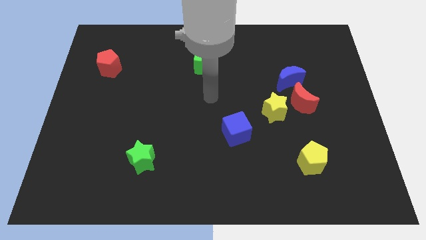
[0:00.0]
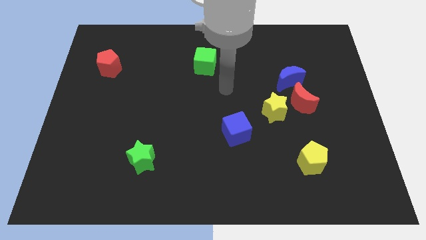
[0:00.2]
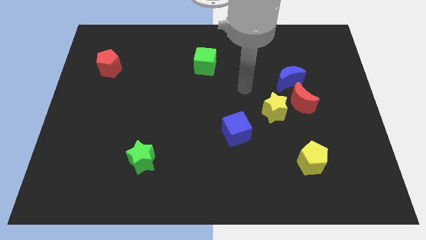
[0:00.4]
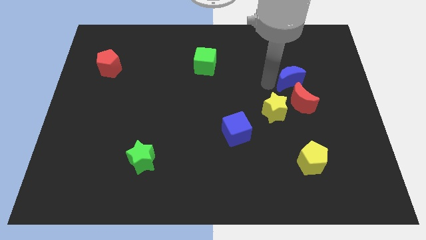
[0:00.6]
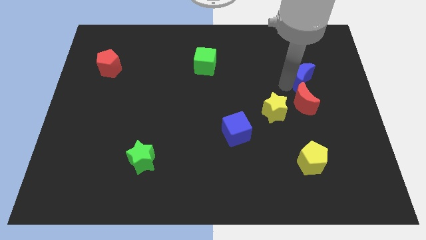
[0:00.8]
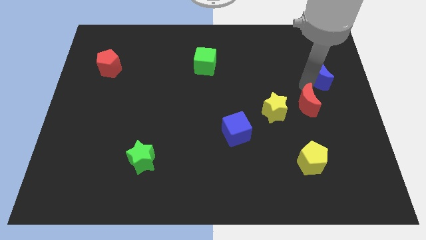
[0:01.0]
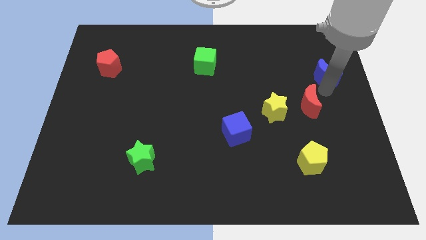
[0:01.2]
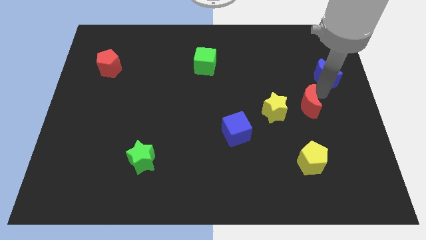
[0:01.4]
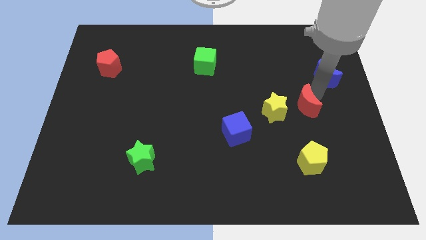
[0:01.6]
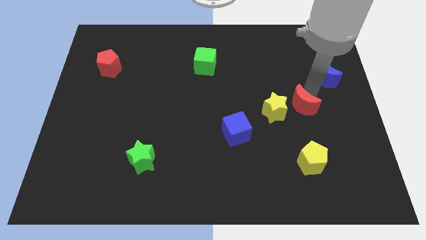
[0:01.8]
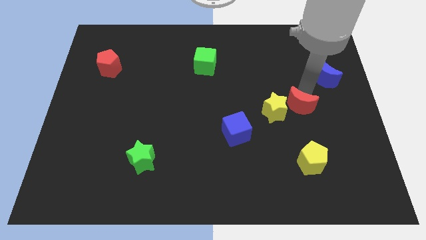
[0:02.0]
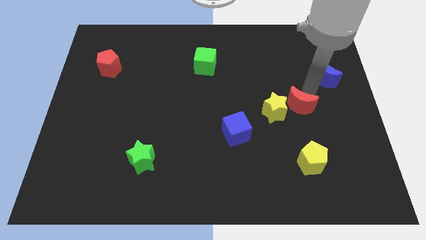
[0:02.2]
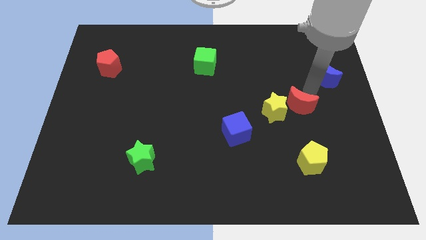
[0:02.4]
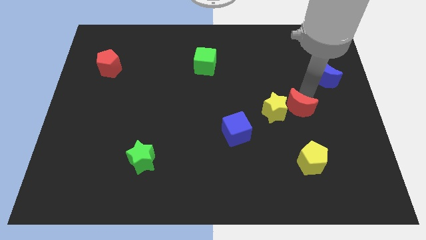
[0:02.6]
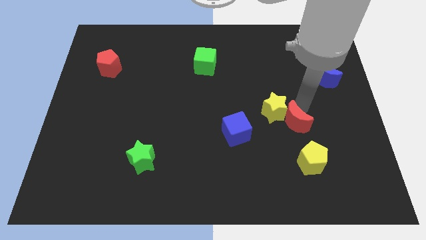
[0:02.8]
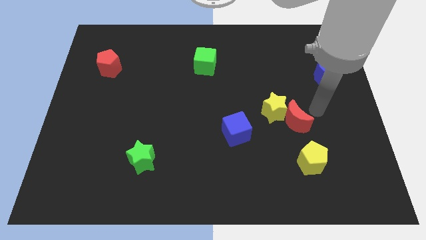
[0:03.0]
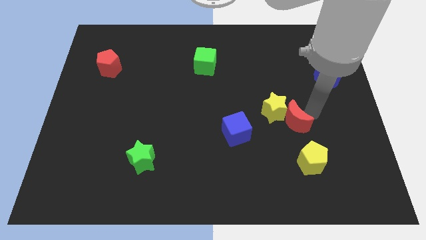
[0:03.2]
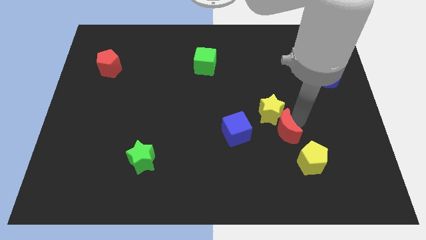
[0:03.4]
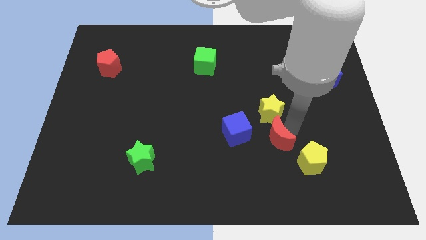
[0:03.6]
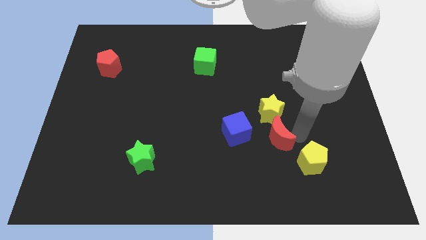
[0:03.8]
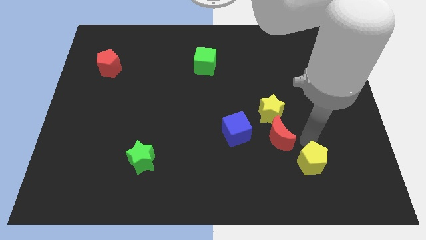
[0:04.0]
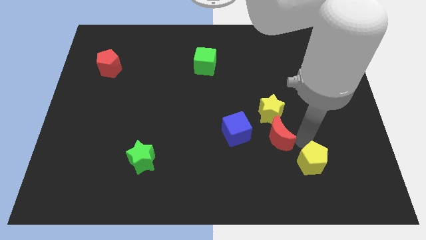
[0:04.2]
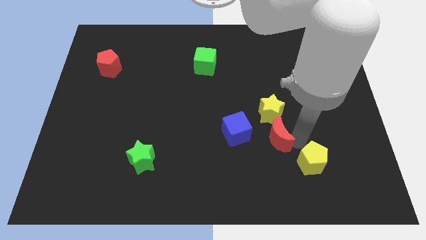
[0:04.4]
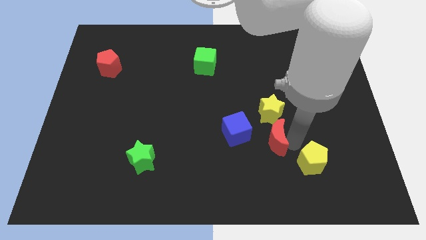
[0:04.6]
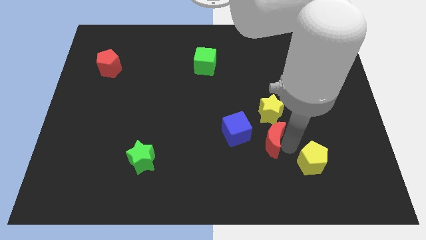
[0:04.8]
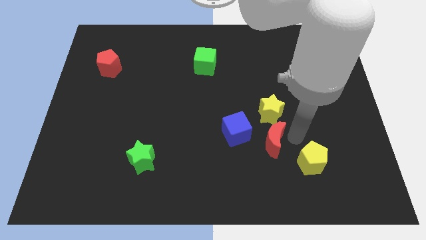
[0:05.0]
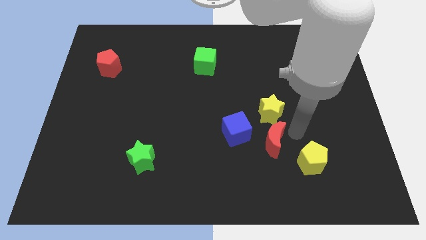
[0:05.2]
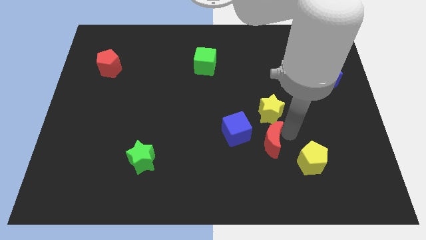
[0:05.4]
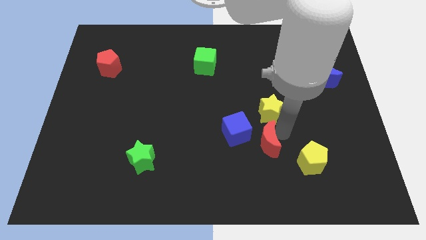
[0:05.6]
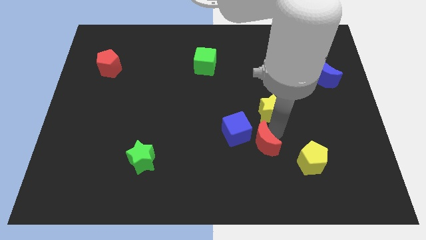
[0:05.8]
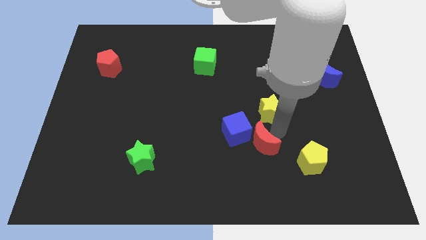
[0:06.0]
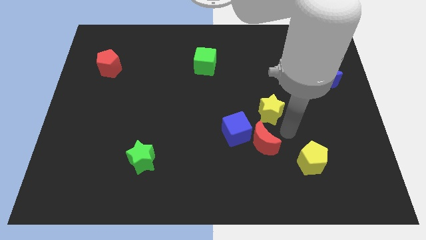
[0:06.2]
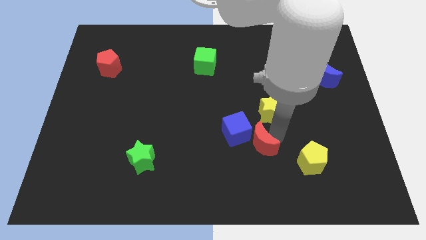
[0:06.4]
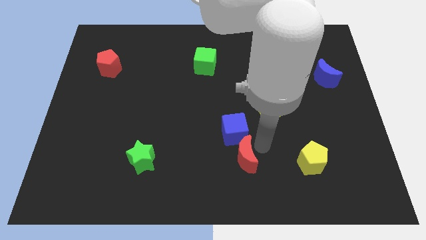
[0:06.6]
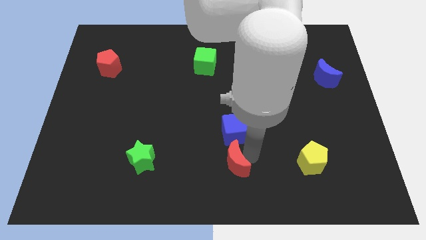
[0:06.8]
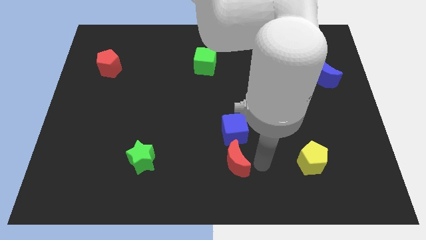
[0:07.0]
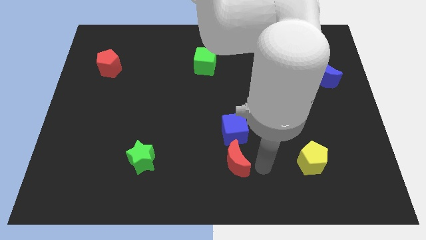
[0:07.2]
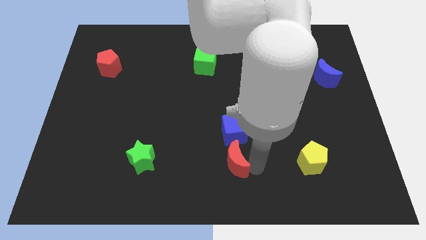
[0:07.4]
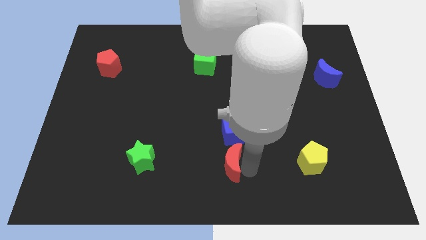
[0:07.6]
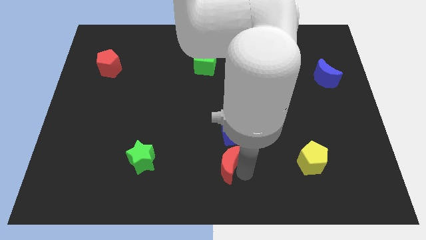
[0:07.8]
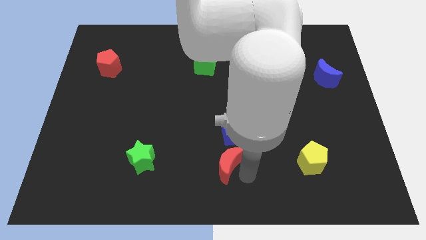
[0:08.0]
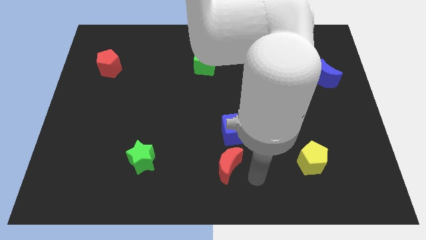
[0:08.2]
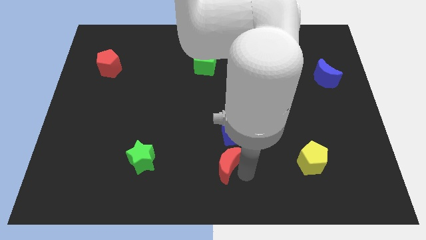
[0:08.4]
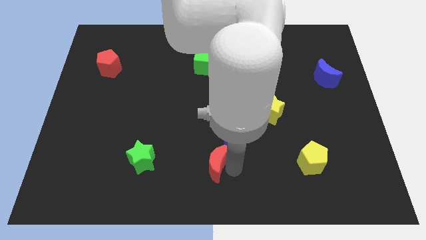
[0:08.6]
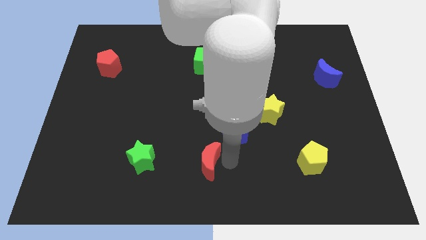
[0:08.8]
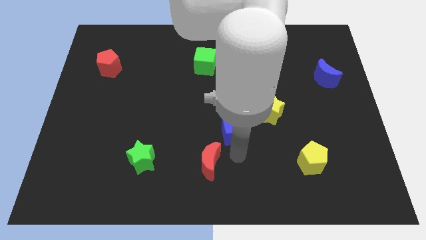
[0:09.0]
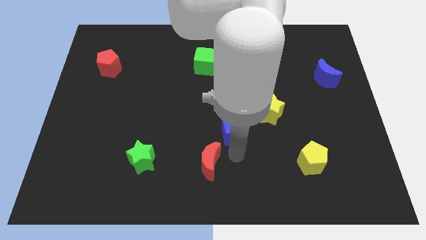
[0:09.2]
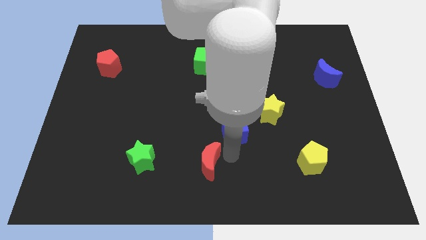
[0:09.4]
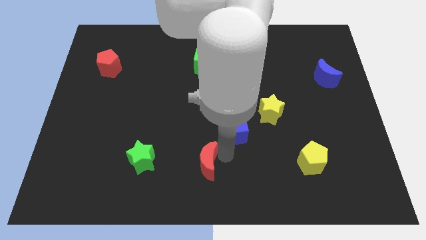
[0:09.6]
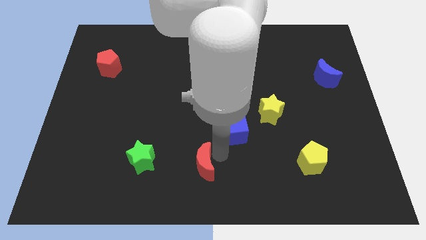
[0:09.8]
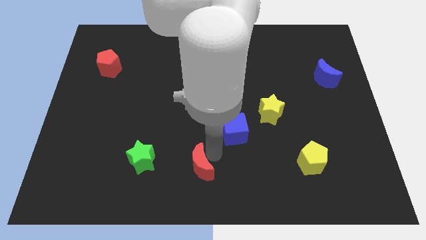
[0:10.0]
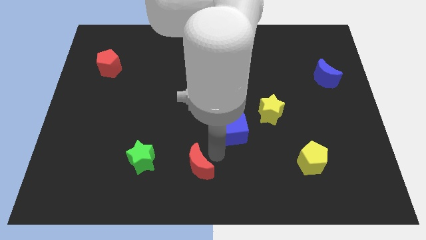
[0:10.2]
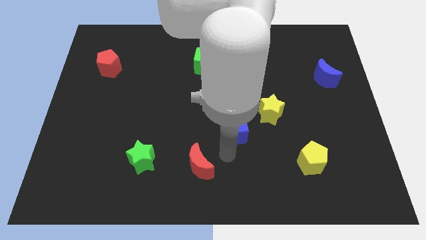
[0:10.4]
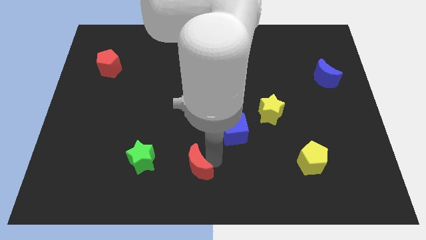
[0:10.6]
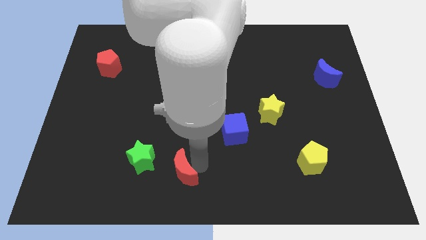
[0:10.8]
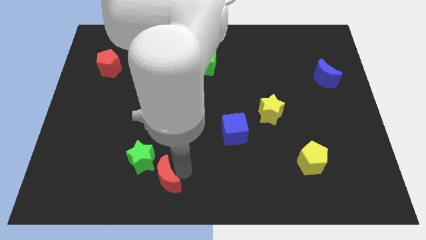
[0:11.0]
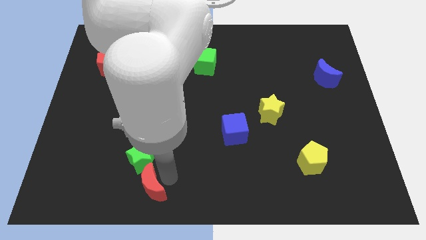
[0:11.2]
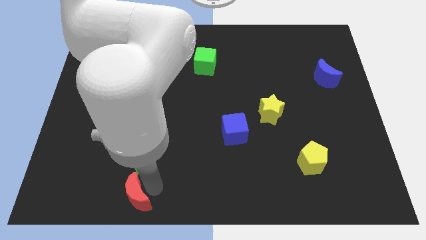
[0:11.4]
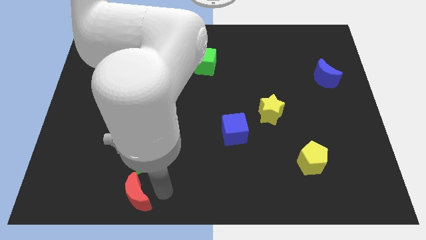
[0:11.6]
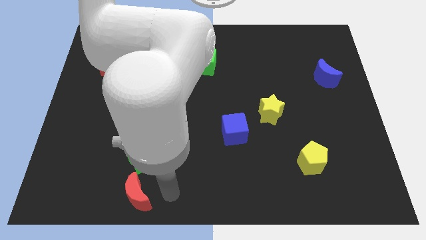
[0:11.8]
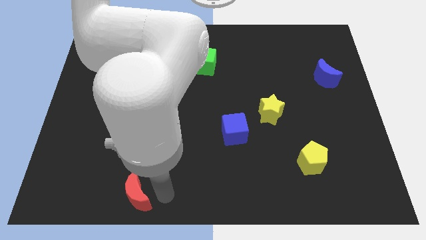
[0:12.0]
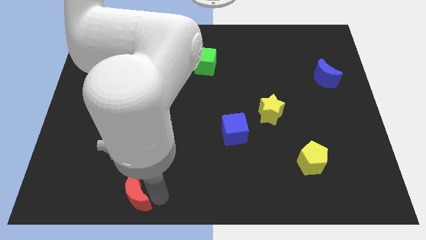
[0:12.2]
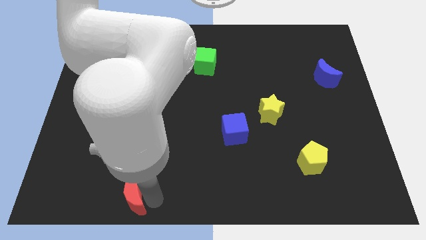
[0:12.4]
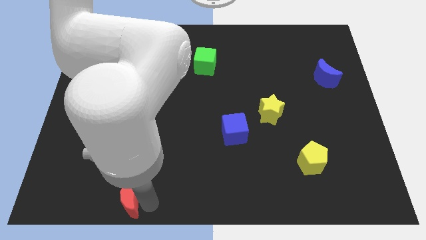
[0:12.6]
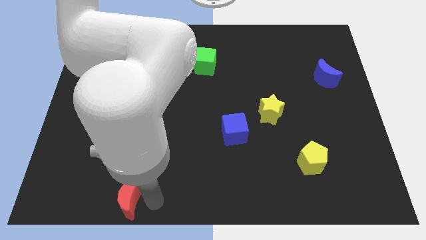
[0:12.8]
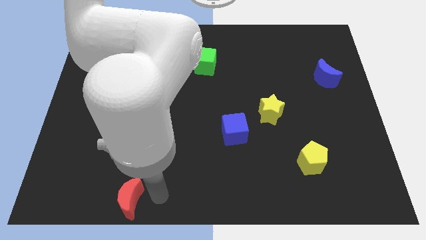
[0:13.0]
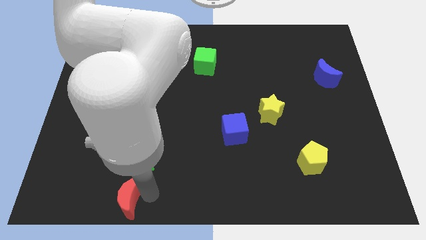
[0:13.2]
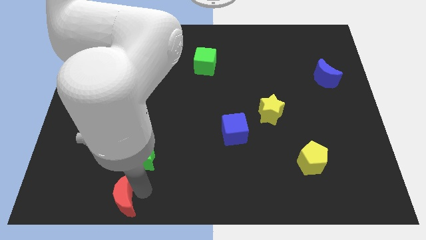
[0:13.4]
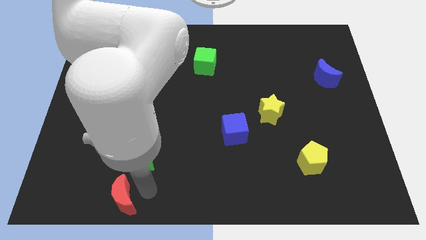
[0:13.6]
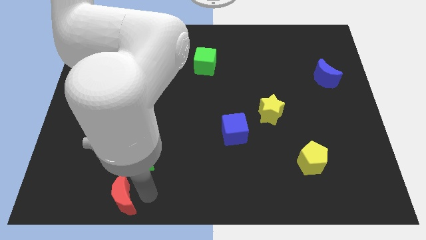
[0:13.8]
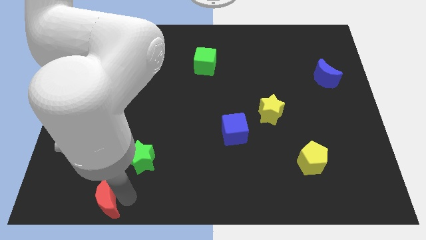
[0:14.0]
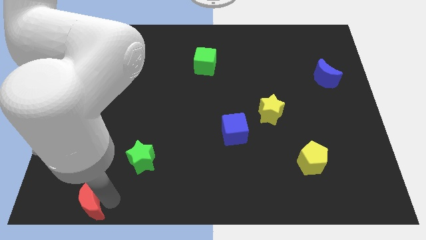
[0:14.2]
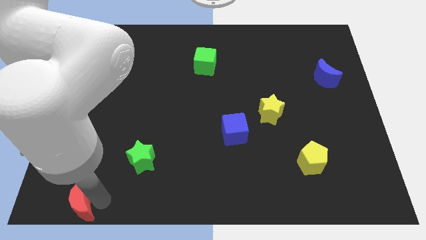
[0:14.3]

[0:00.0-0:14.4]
put the red moon to the bottom left corner
